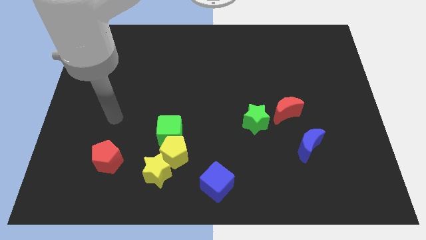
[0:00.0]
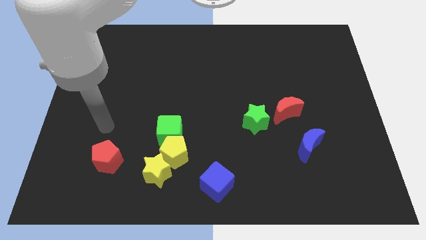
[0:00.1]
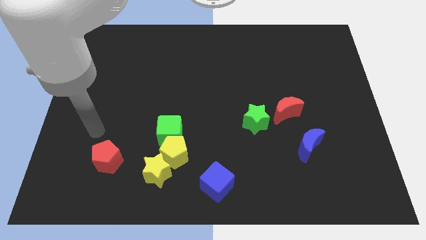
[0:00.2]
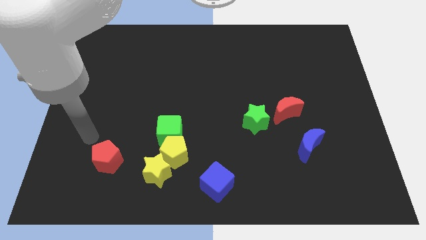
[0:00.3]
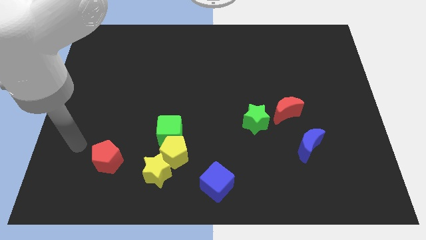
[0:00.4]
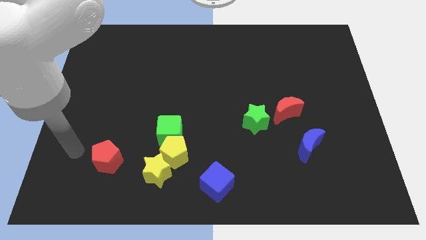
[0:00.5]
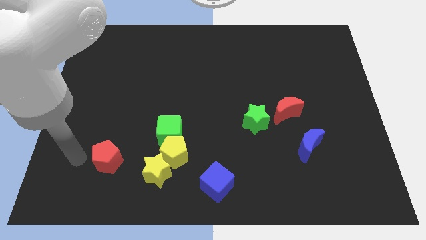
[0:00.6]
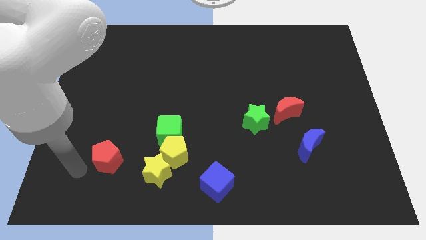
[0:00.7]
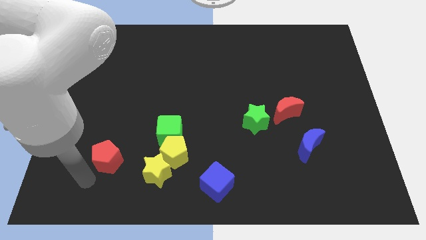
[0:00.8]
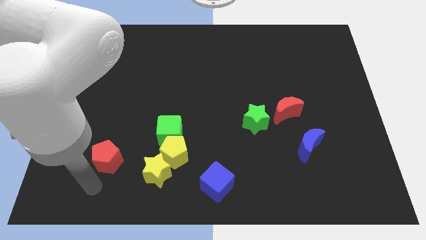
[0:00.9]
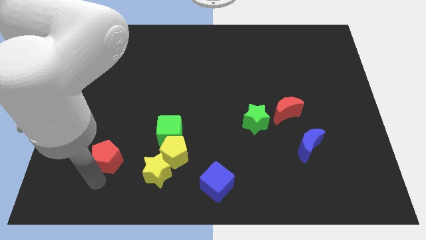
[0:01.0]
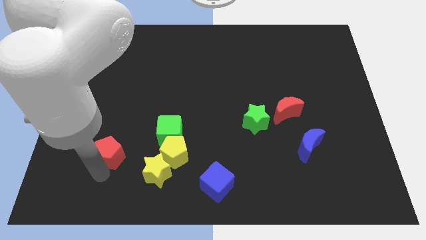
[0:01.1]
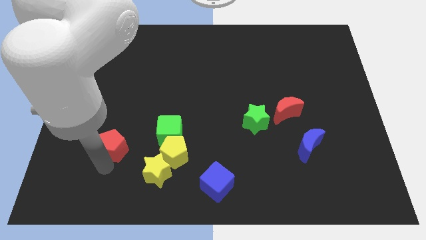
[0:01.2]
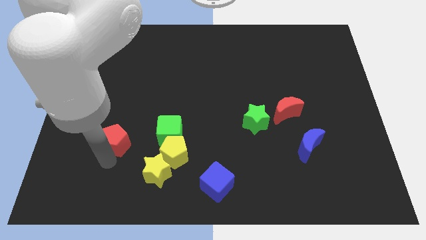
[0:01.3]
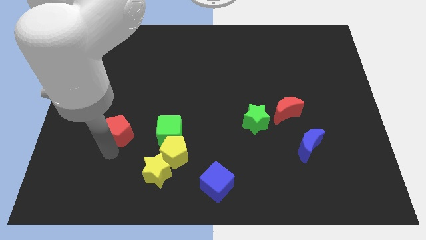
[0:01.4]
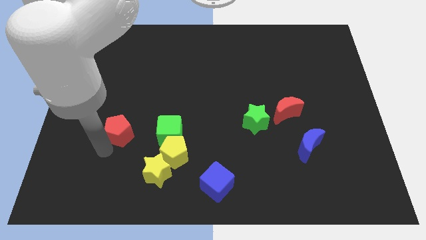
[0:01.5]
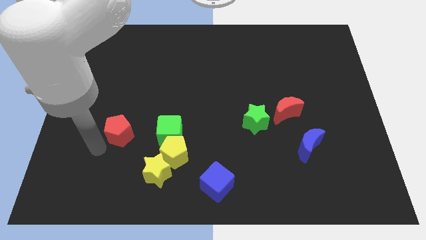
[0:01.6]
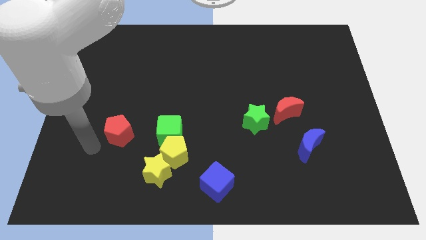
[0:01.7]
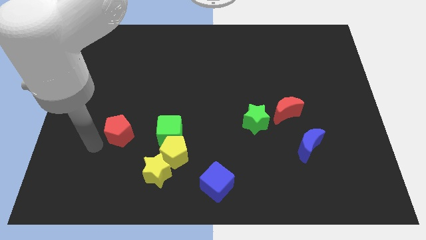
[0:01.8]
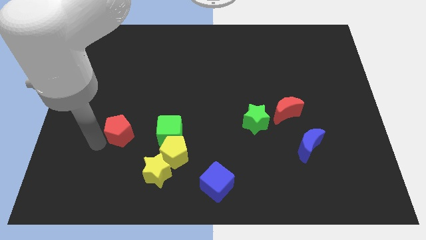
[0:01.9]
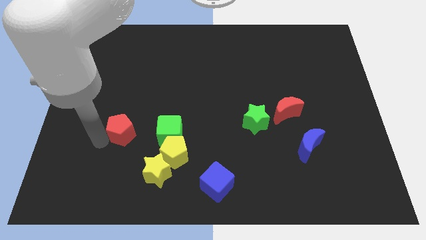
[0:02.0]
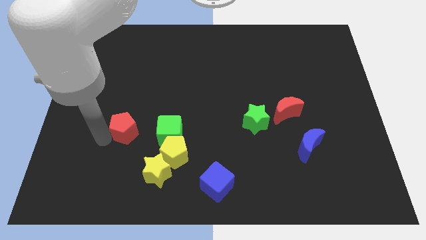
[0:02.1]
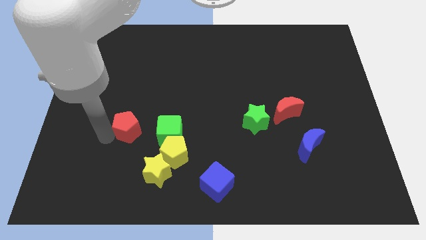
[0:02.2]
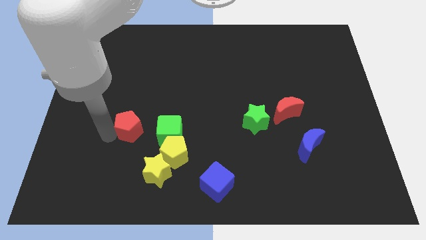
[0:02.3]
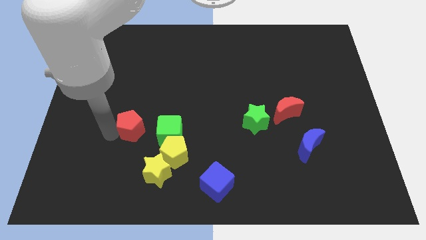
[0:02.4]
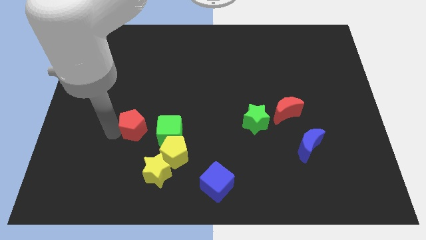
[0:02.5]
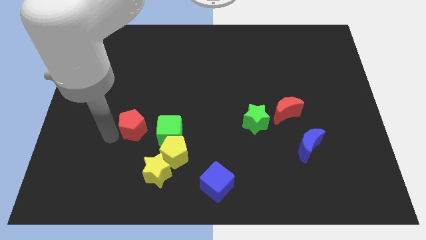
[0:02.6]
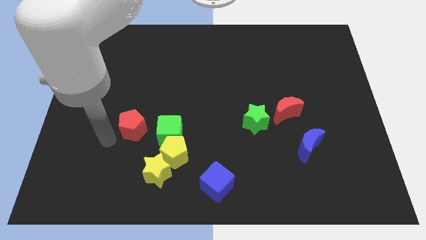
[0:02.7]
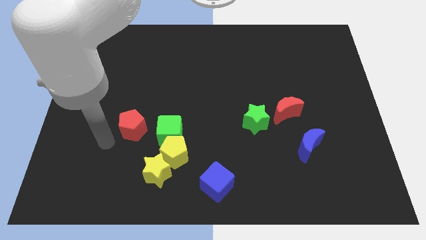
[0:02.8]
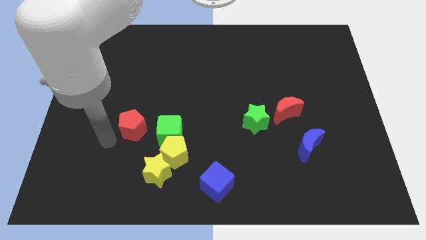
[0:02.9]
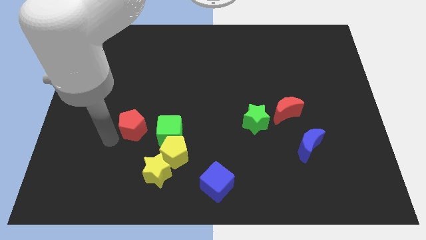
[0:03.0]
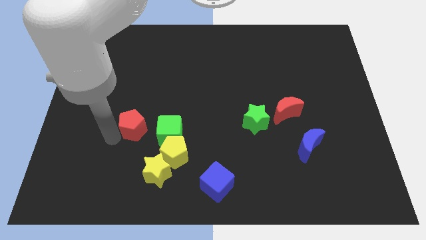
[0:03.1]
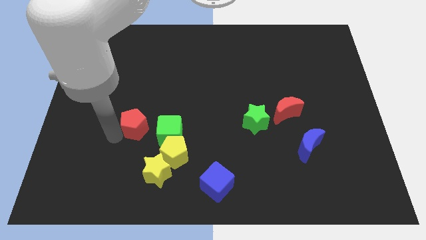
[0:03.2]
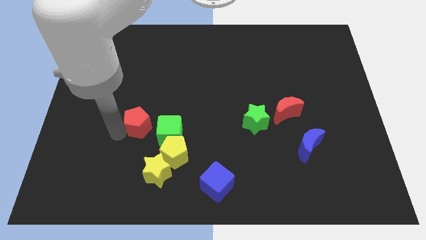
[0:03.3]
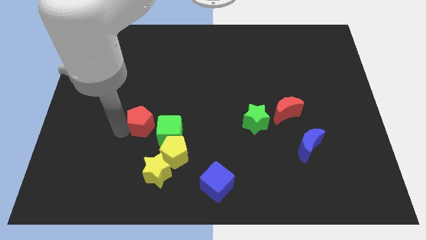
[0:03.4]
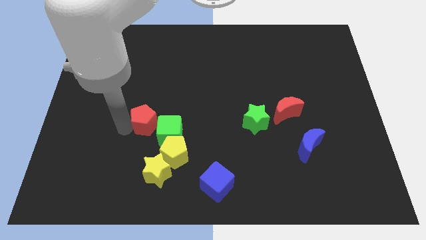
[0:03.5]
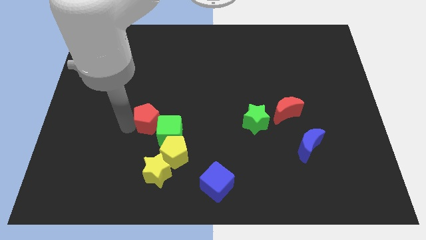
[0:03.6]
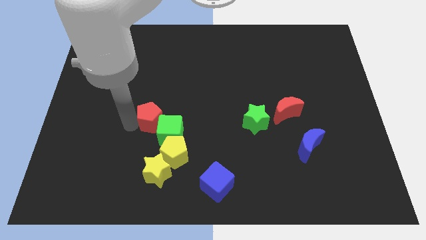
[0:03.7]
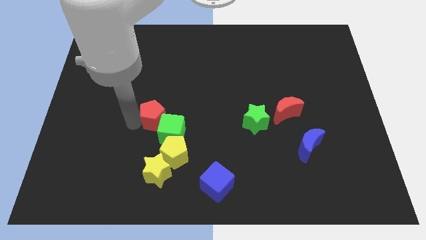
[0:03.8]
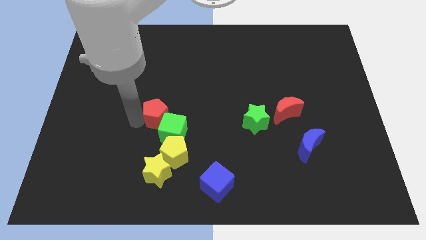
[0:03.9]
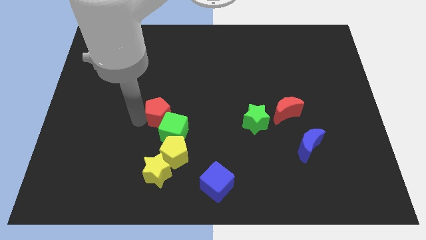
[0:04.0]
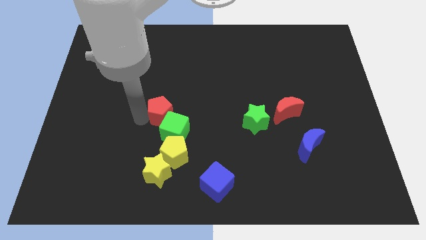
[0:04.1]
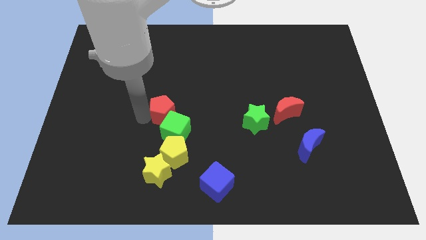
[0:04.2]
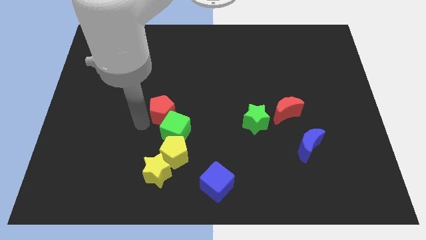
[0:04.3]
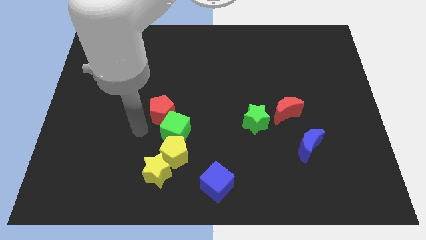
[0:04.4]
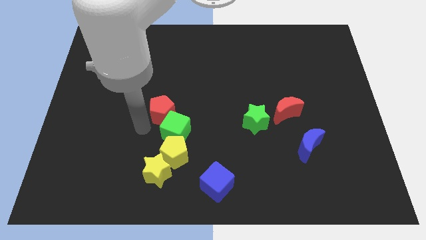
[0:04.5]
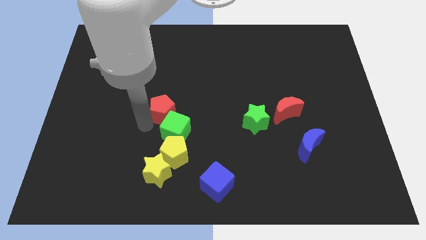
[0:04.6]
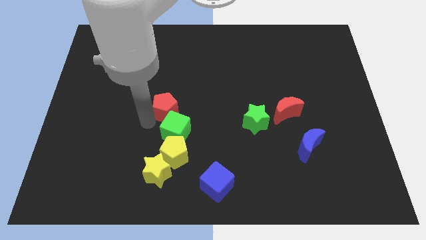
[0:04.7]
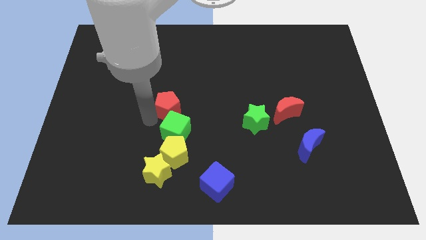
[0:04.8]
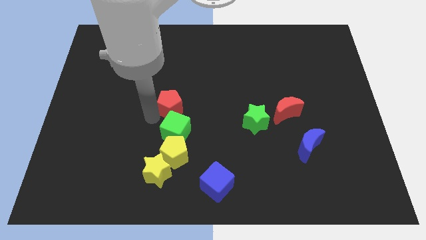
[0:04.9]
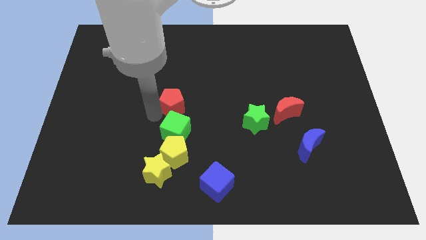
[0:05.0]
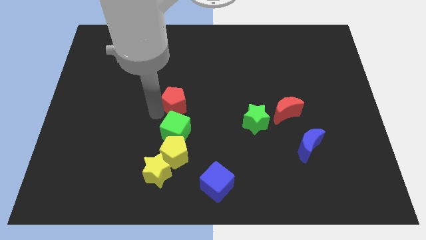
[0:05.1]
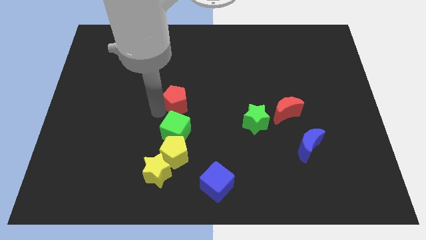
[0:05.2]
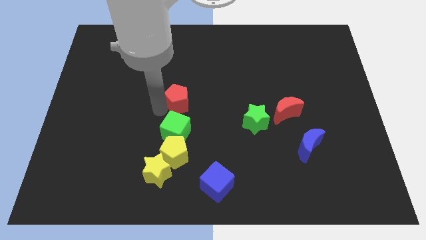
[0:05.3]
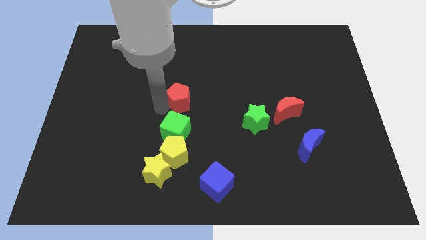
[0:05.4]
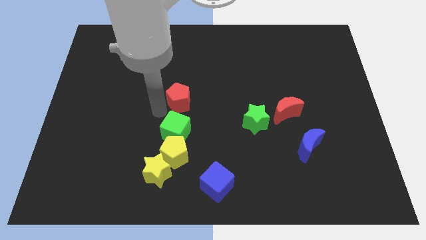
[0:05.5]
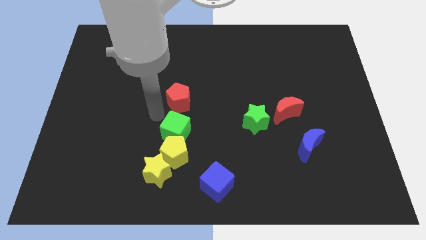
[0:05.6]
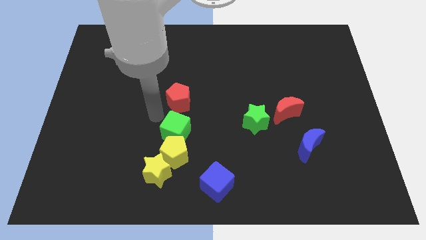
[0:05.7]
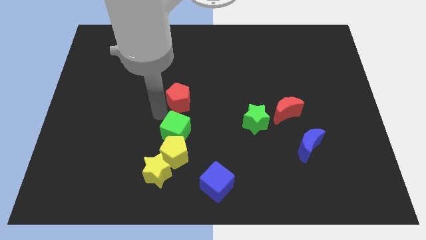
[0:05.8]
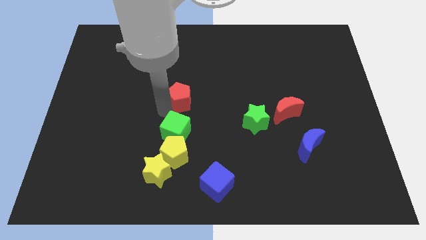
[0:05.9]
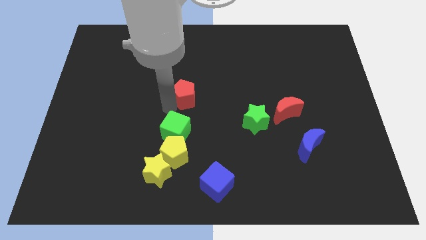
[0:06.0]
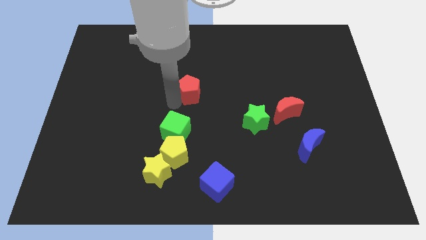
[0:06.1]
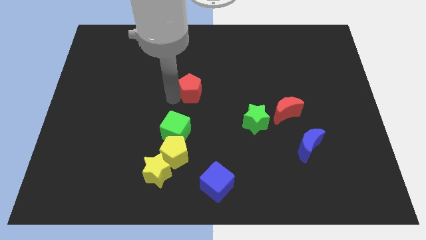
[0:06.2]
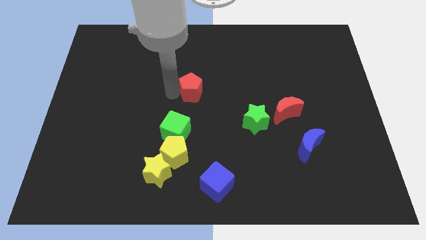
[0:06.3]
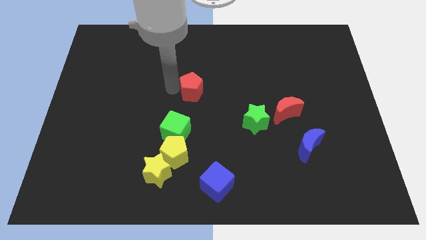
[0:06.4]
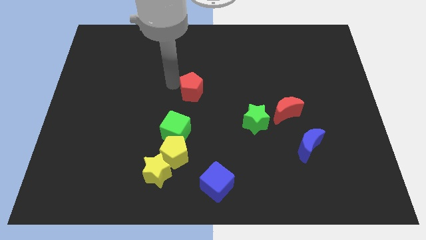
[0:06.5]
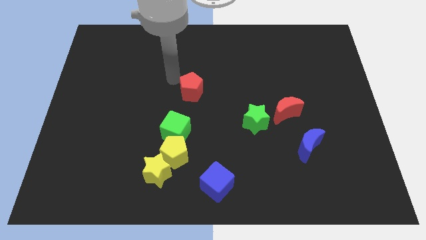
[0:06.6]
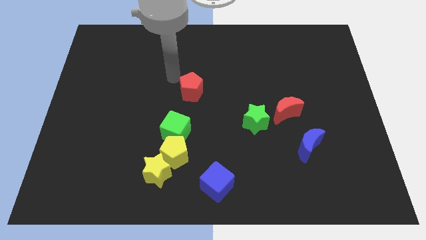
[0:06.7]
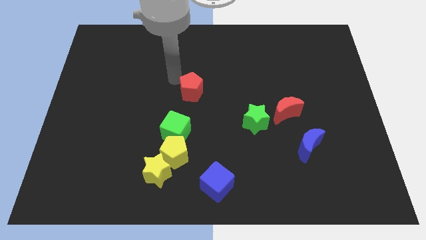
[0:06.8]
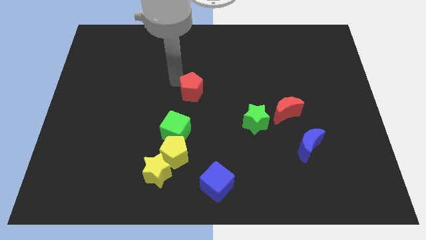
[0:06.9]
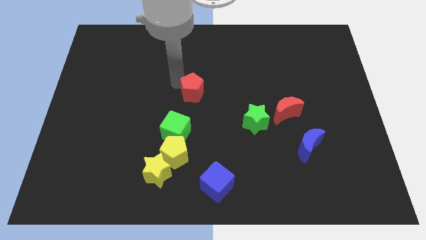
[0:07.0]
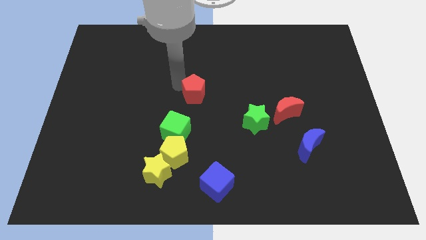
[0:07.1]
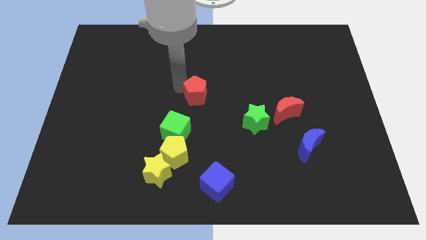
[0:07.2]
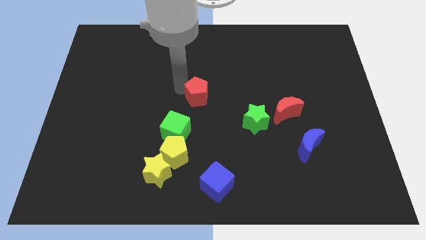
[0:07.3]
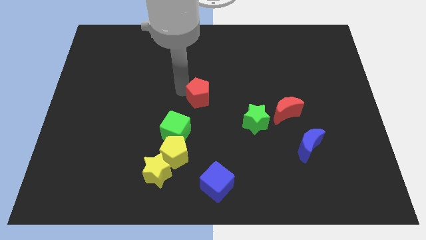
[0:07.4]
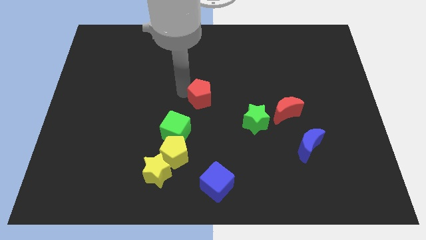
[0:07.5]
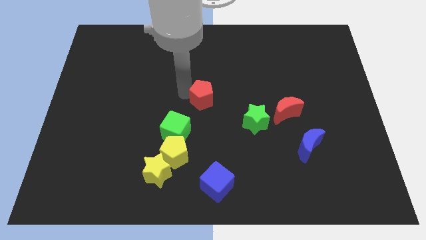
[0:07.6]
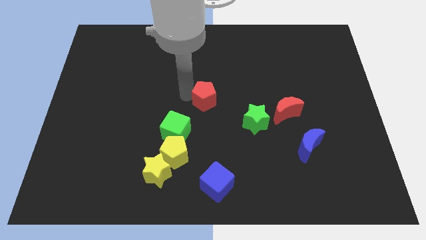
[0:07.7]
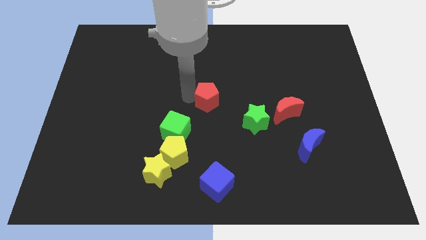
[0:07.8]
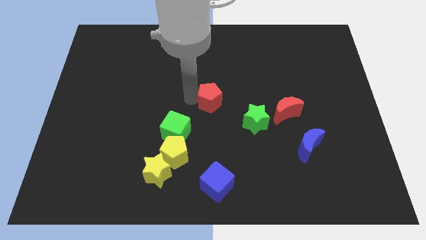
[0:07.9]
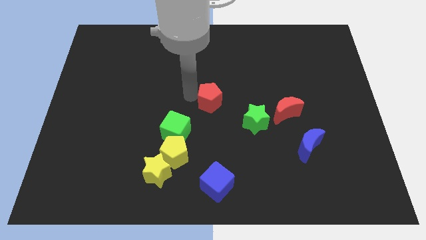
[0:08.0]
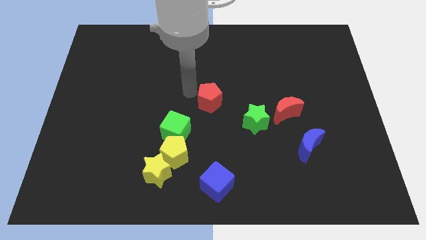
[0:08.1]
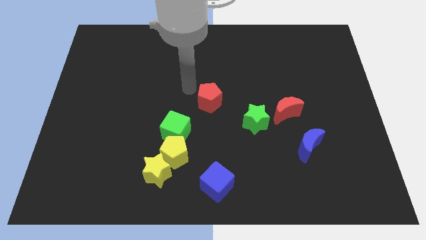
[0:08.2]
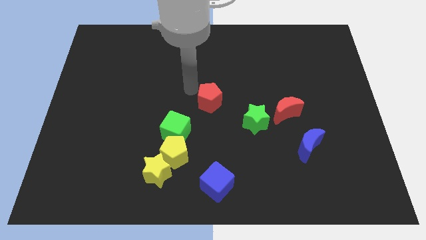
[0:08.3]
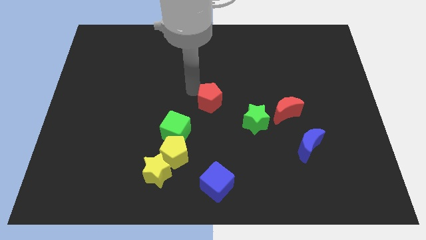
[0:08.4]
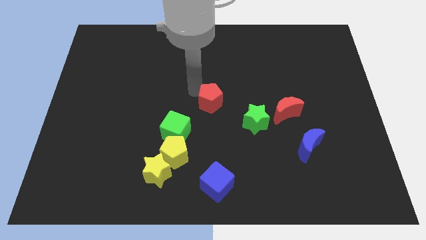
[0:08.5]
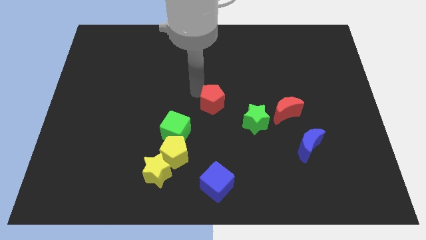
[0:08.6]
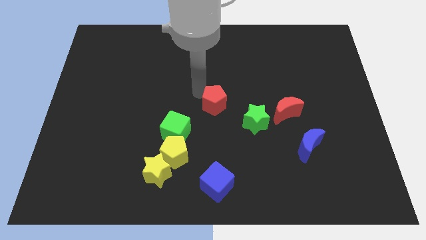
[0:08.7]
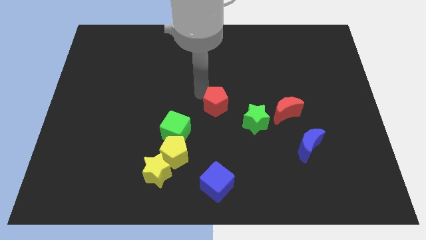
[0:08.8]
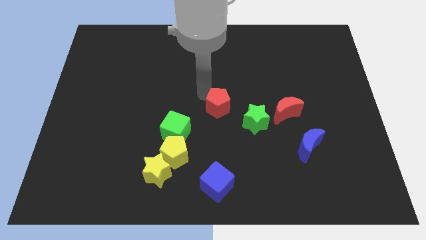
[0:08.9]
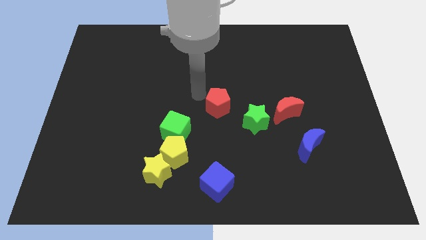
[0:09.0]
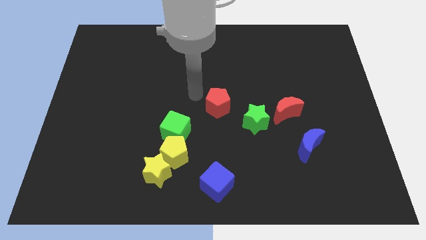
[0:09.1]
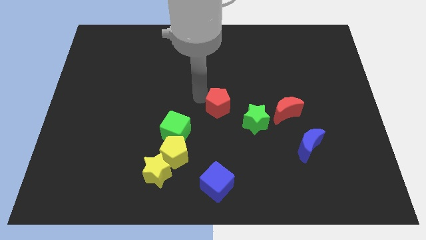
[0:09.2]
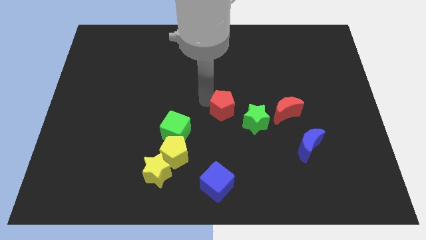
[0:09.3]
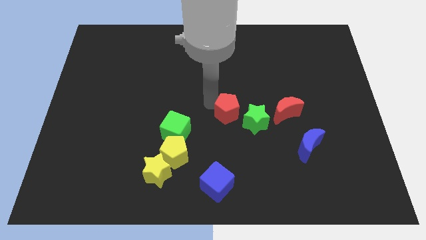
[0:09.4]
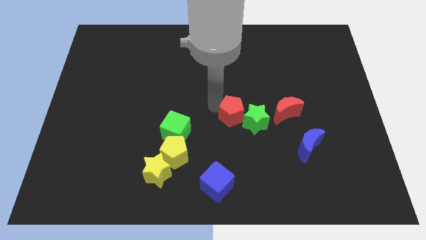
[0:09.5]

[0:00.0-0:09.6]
put the red pentagon next to the green star
